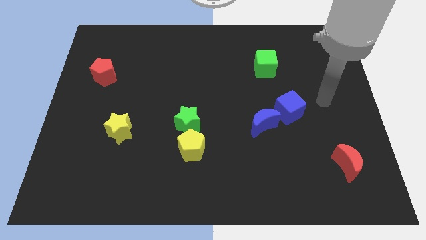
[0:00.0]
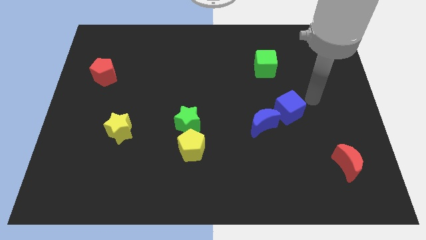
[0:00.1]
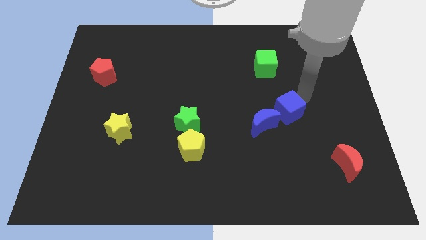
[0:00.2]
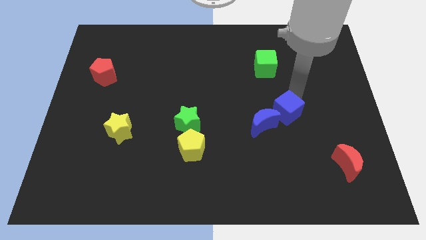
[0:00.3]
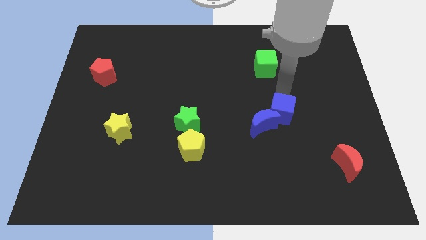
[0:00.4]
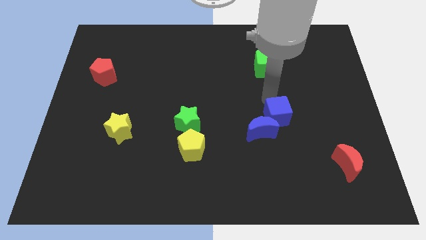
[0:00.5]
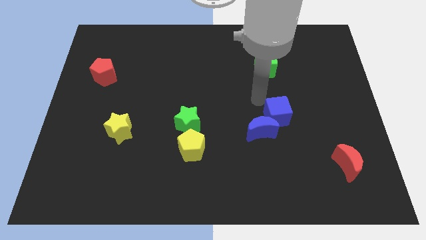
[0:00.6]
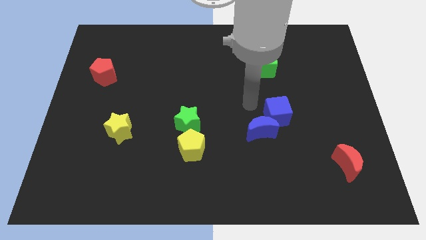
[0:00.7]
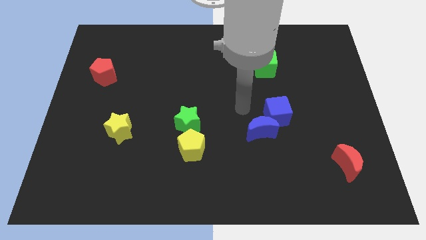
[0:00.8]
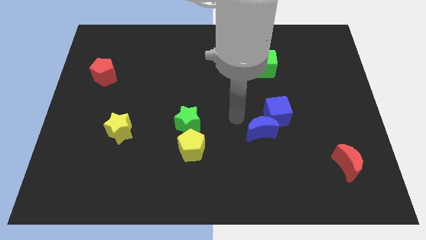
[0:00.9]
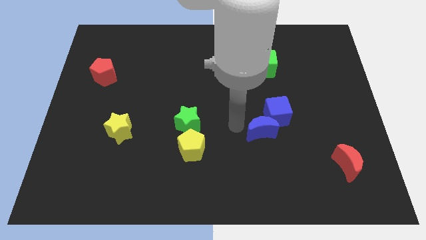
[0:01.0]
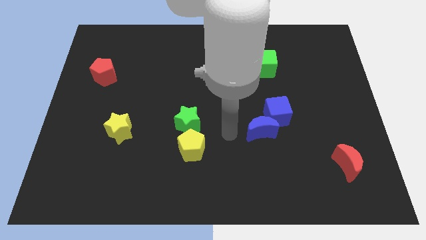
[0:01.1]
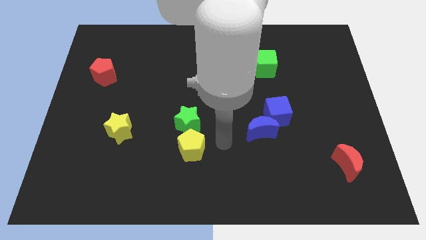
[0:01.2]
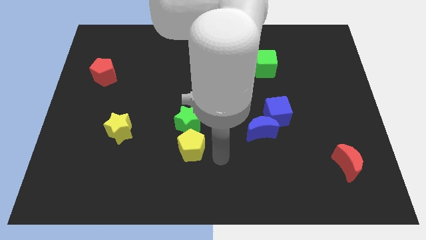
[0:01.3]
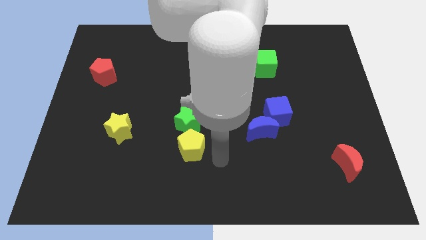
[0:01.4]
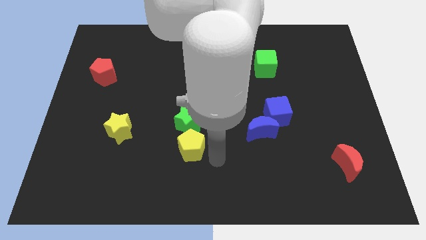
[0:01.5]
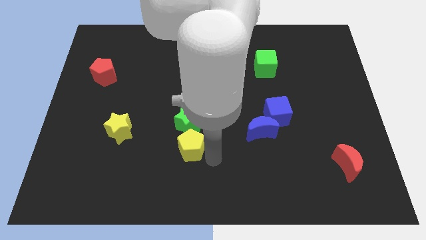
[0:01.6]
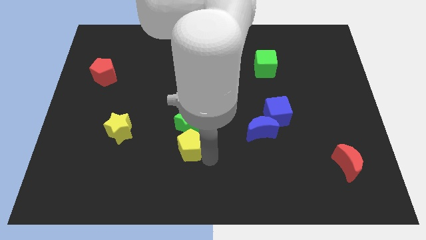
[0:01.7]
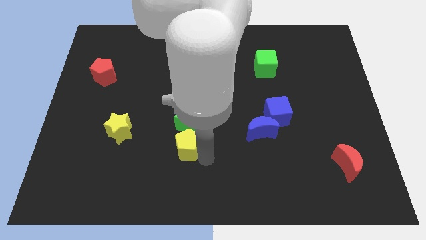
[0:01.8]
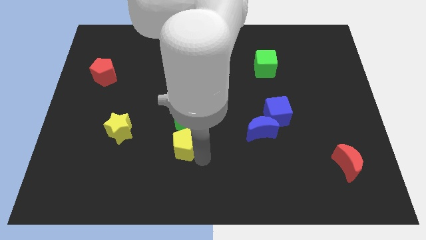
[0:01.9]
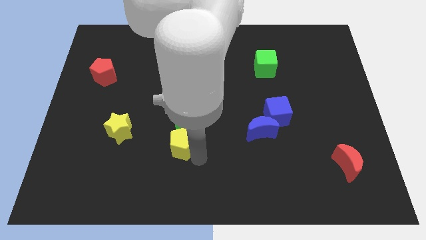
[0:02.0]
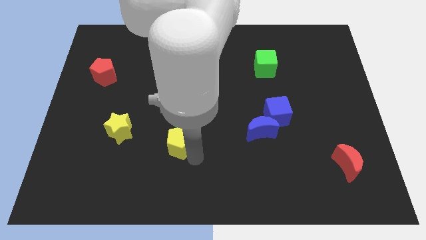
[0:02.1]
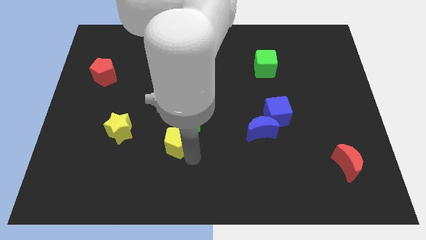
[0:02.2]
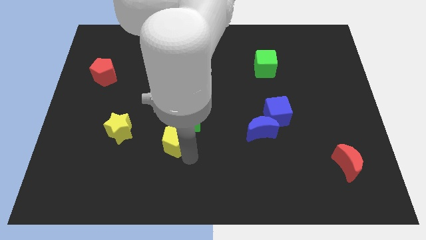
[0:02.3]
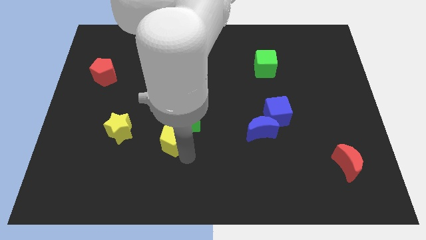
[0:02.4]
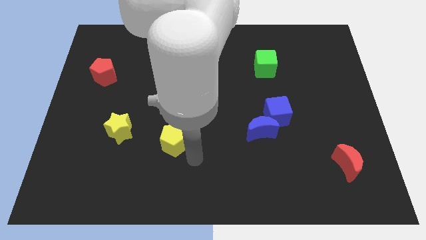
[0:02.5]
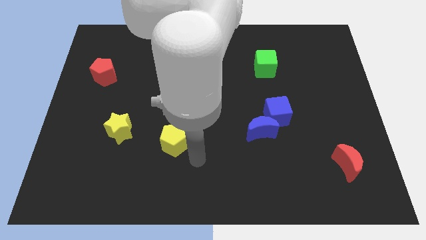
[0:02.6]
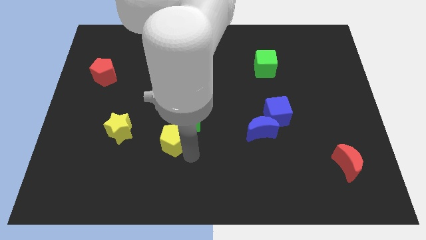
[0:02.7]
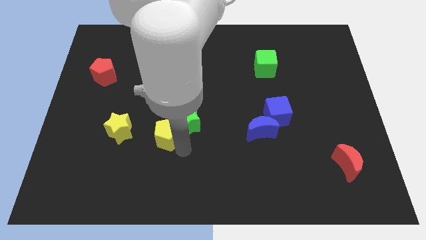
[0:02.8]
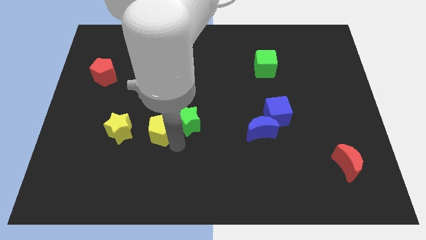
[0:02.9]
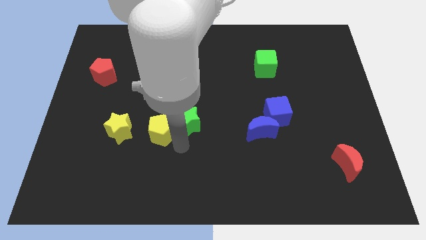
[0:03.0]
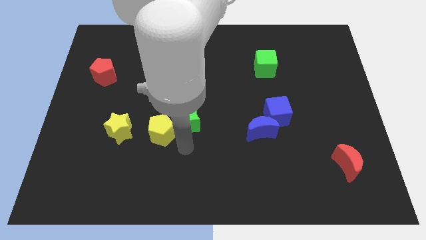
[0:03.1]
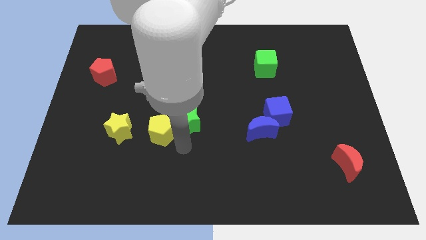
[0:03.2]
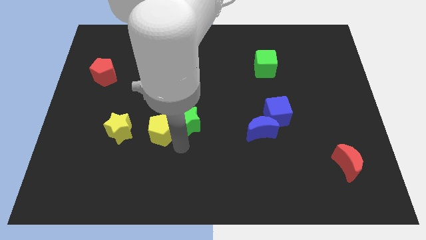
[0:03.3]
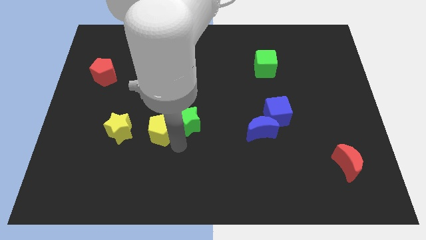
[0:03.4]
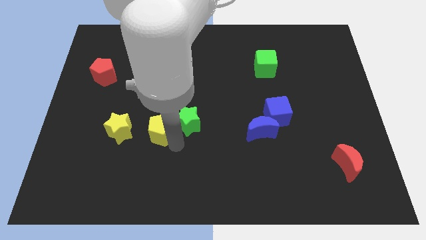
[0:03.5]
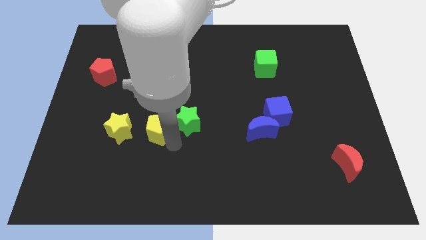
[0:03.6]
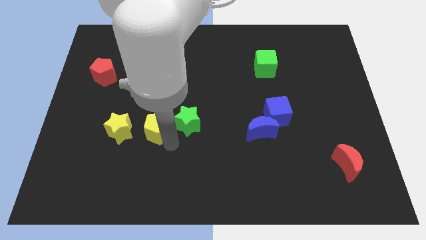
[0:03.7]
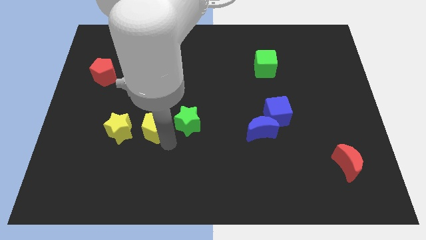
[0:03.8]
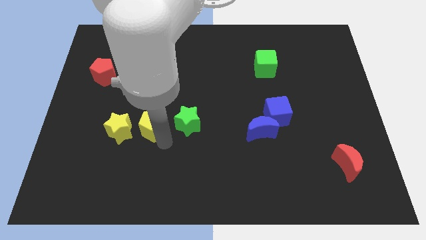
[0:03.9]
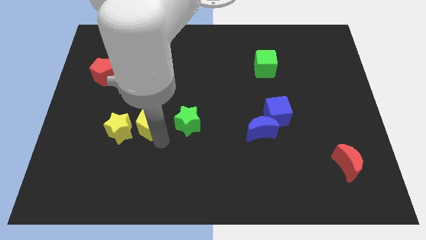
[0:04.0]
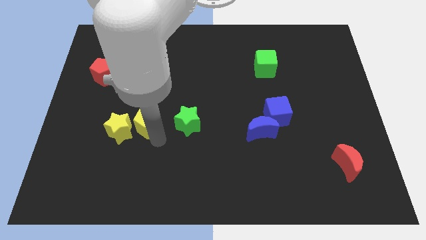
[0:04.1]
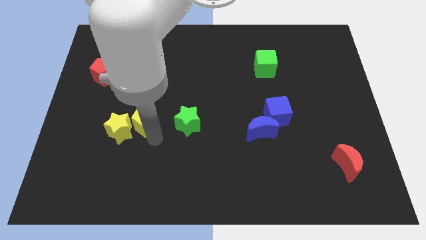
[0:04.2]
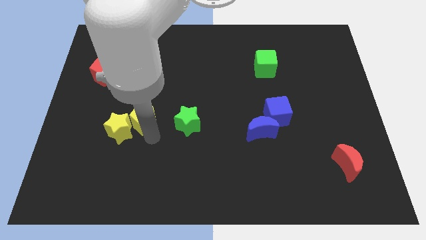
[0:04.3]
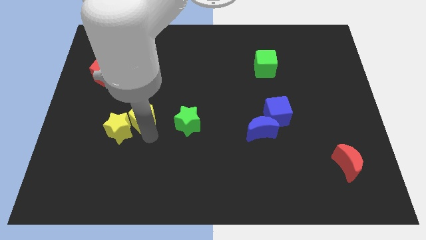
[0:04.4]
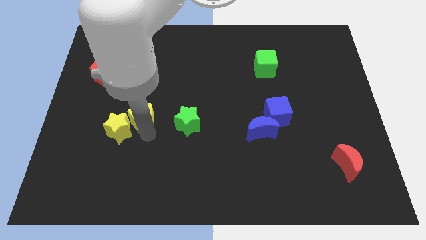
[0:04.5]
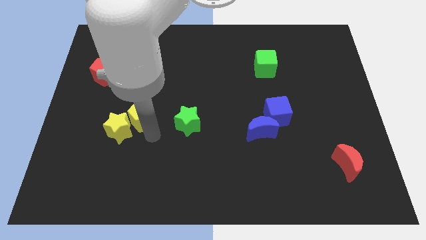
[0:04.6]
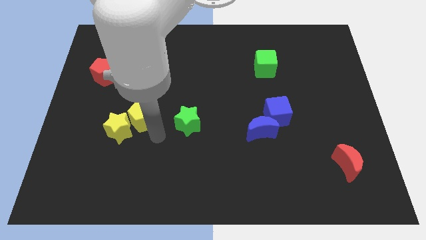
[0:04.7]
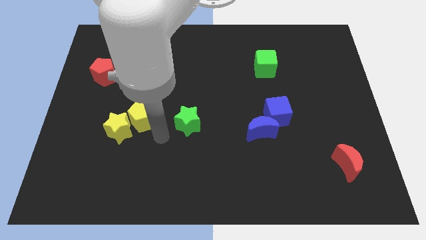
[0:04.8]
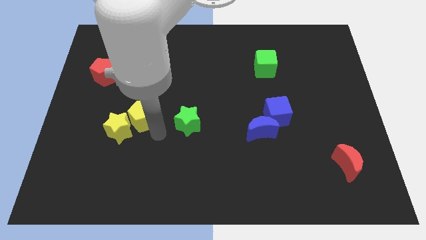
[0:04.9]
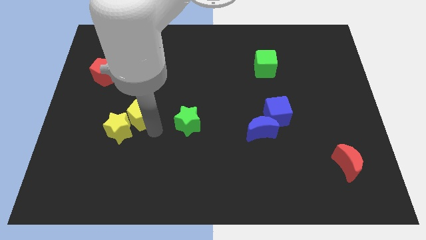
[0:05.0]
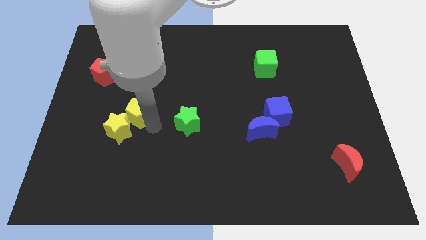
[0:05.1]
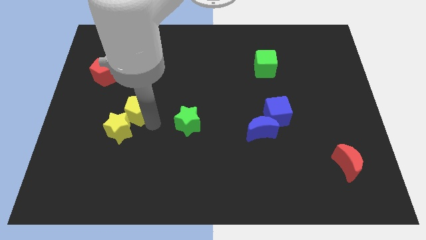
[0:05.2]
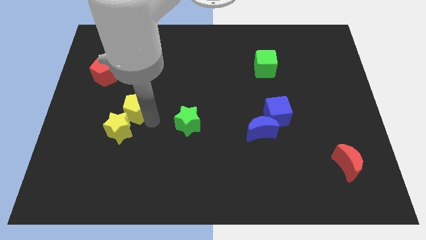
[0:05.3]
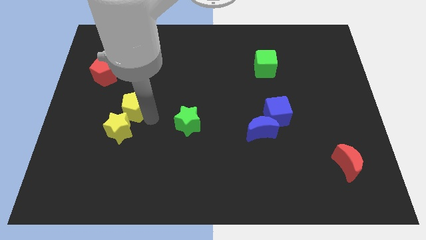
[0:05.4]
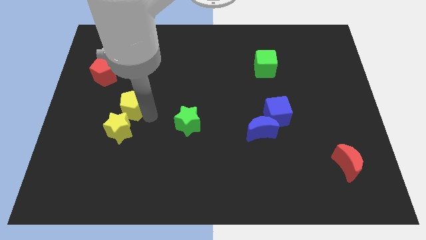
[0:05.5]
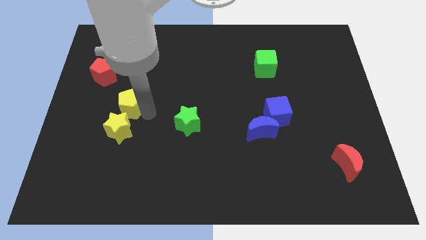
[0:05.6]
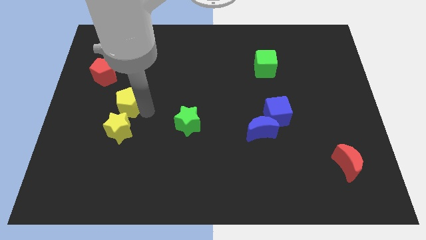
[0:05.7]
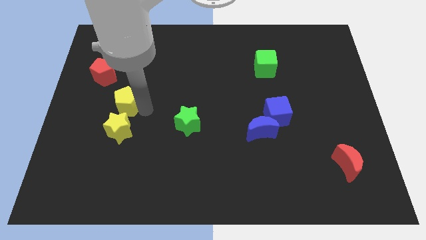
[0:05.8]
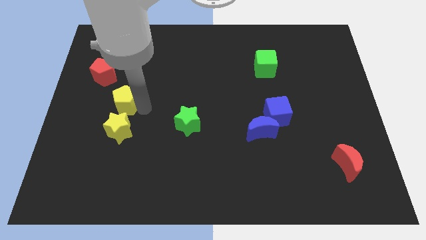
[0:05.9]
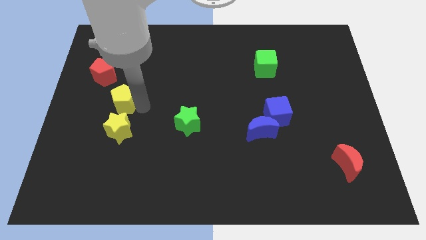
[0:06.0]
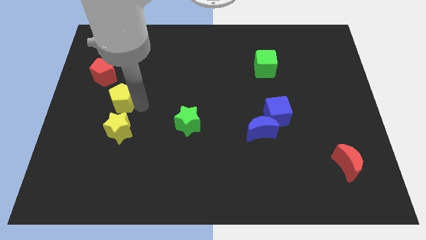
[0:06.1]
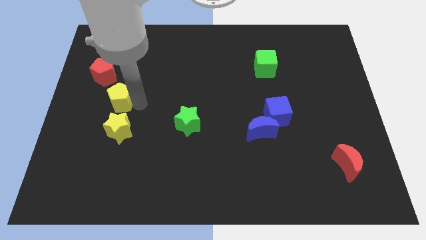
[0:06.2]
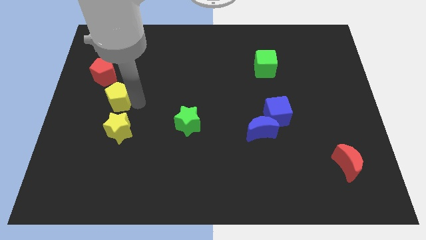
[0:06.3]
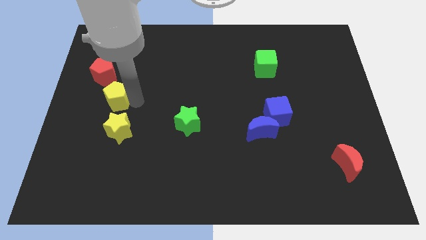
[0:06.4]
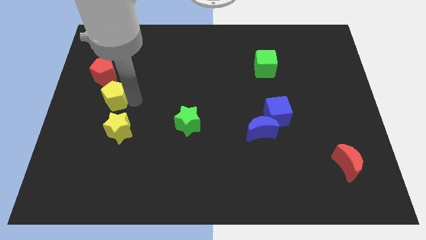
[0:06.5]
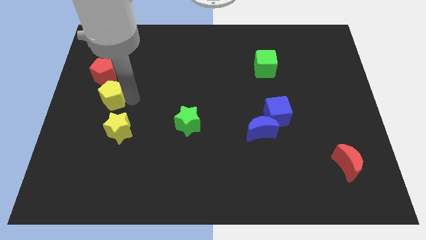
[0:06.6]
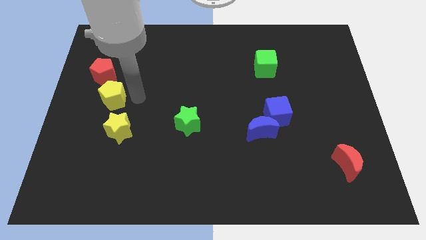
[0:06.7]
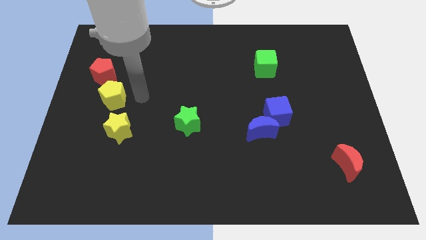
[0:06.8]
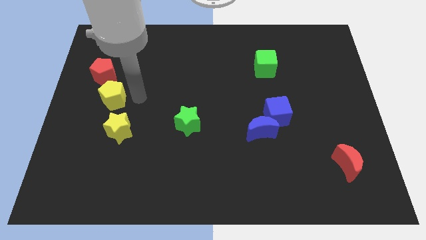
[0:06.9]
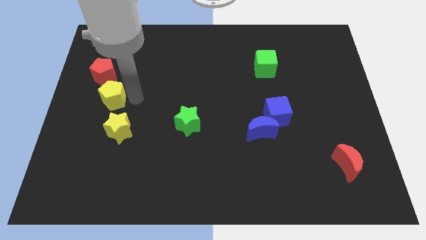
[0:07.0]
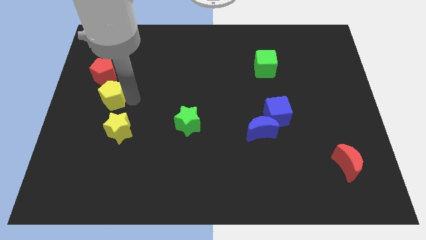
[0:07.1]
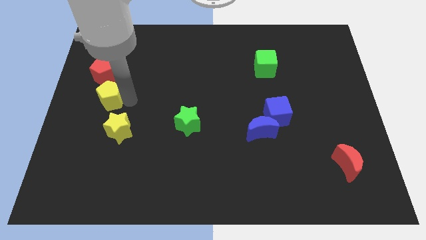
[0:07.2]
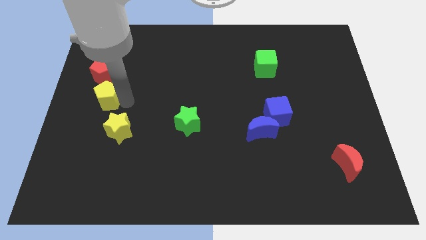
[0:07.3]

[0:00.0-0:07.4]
push the yellow pentagon to the left side of the board
